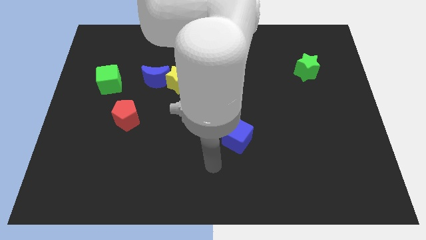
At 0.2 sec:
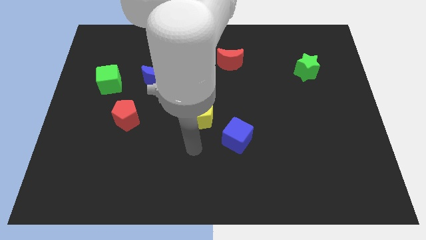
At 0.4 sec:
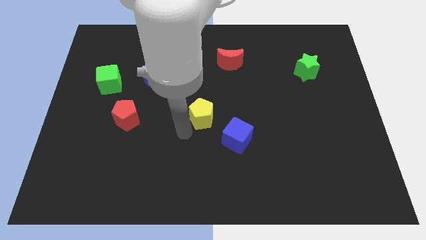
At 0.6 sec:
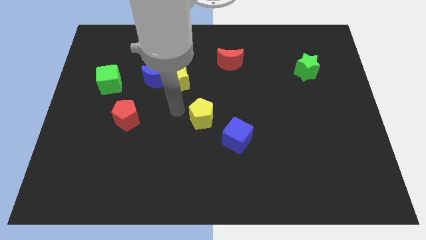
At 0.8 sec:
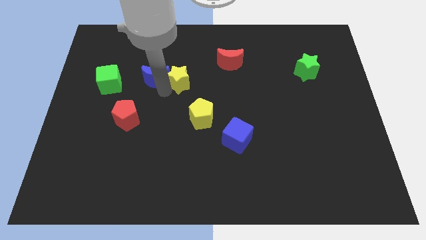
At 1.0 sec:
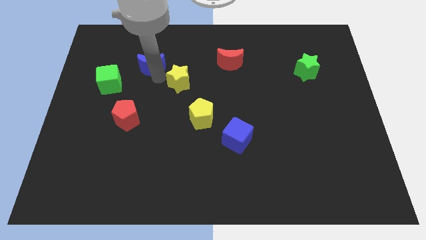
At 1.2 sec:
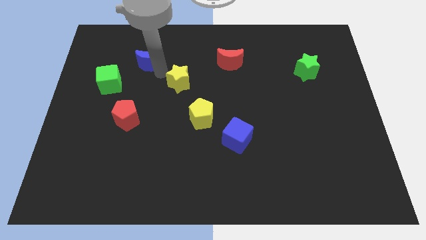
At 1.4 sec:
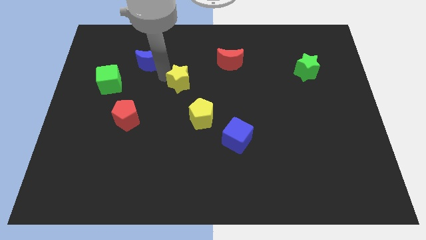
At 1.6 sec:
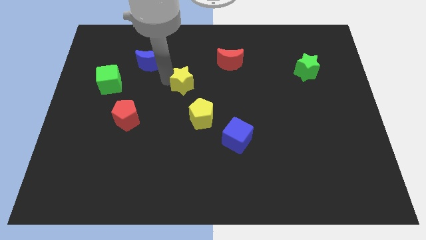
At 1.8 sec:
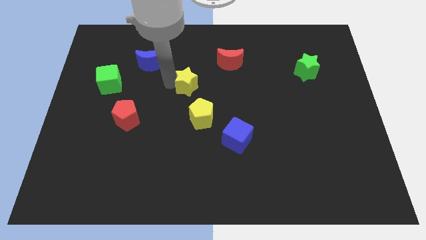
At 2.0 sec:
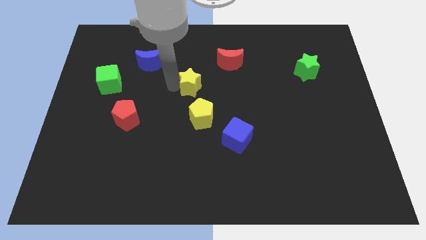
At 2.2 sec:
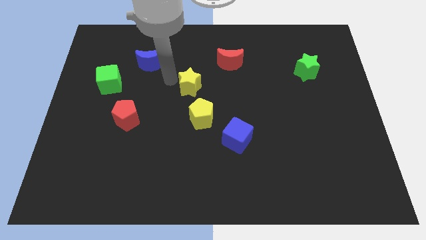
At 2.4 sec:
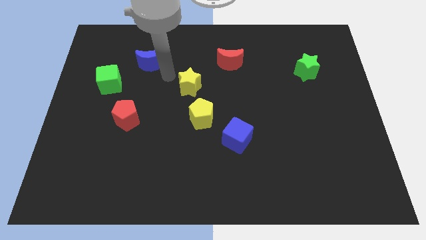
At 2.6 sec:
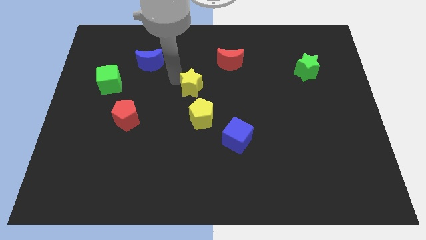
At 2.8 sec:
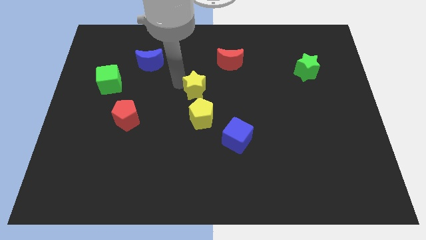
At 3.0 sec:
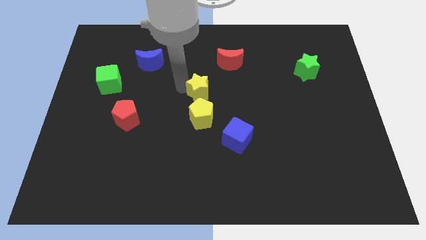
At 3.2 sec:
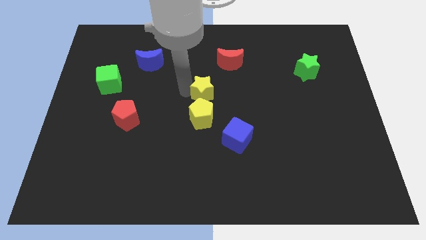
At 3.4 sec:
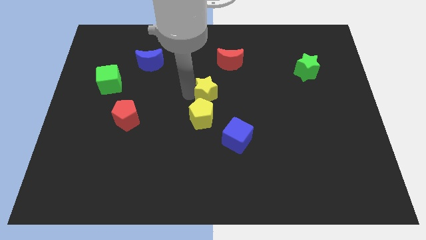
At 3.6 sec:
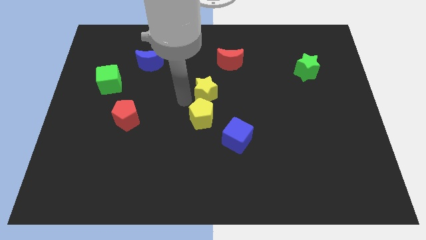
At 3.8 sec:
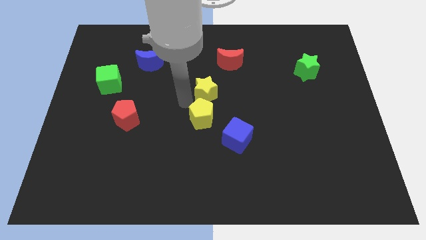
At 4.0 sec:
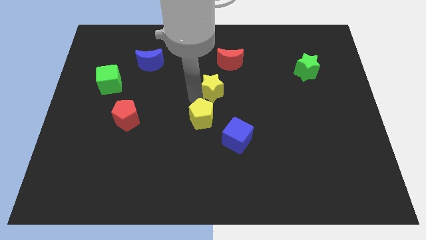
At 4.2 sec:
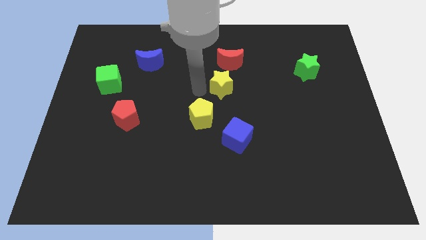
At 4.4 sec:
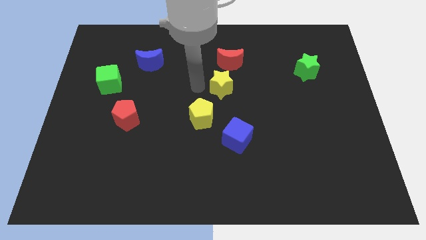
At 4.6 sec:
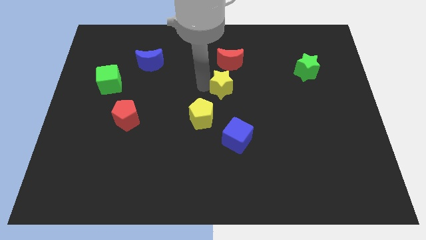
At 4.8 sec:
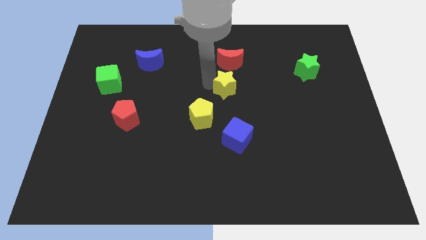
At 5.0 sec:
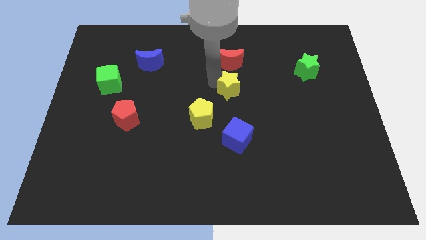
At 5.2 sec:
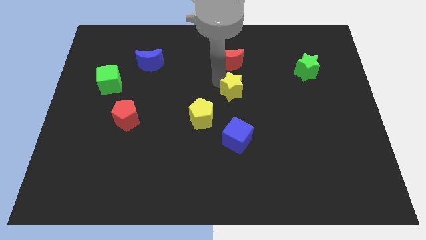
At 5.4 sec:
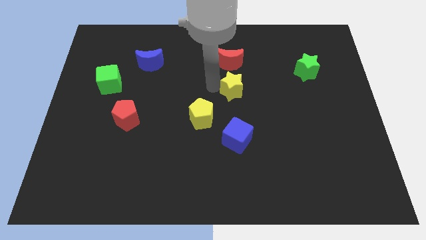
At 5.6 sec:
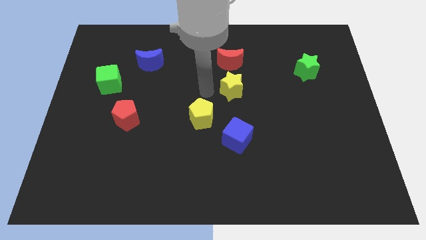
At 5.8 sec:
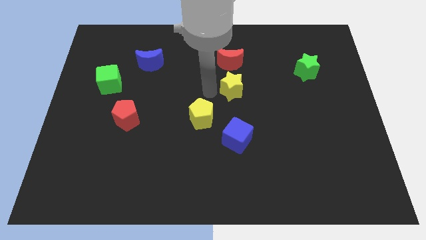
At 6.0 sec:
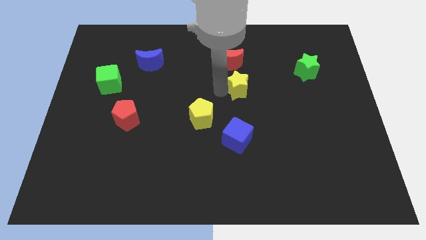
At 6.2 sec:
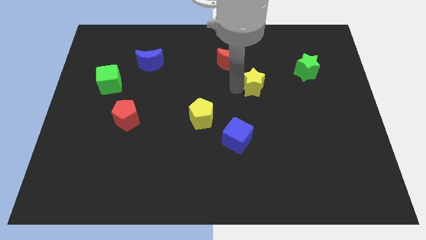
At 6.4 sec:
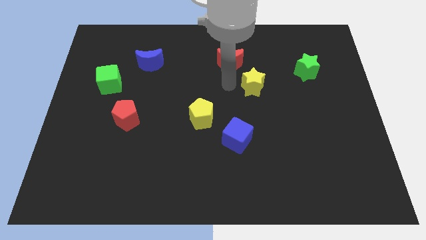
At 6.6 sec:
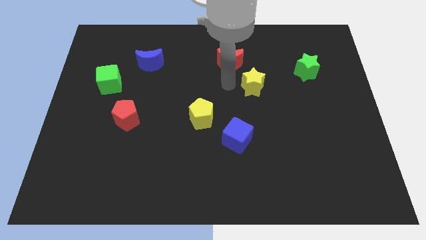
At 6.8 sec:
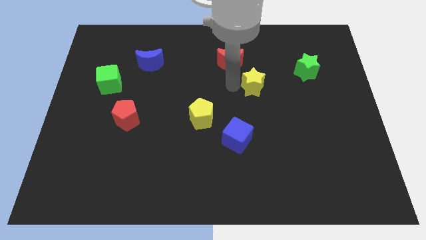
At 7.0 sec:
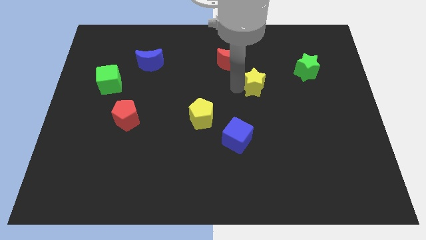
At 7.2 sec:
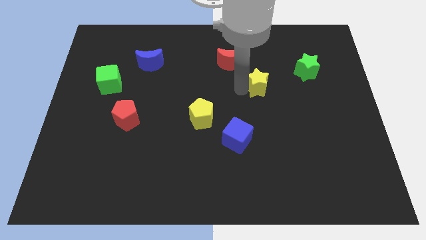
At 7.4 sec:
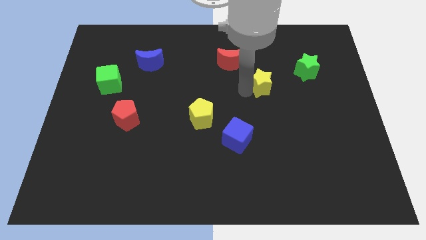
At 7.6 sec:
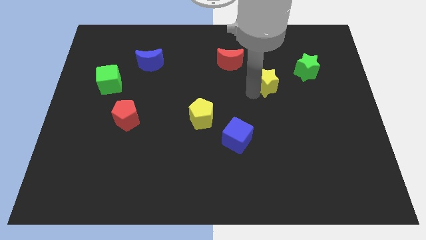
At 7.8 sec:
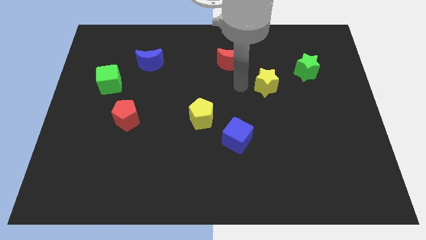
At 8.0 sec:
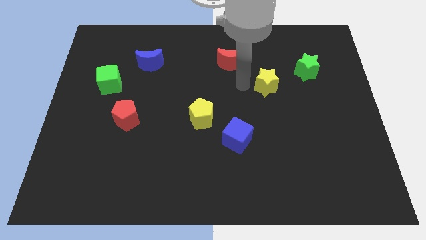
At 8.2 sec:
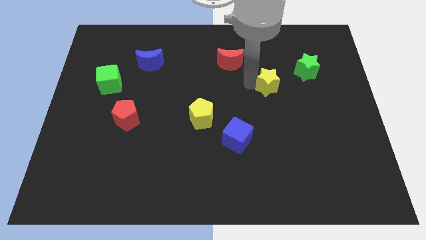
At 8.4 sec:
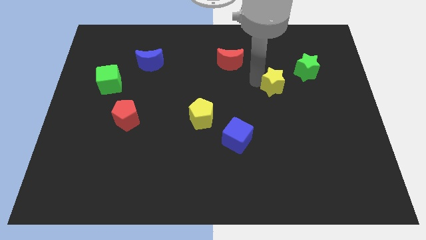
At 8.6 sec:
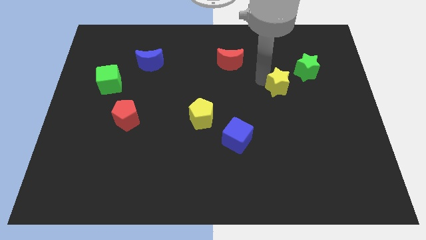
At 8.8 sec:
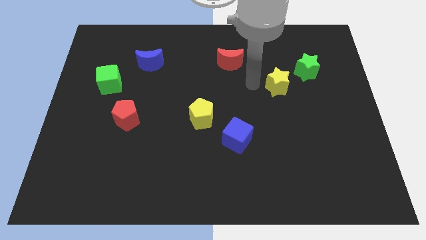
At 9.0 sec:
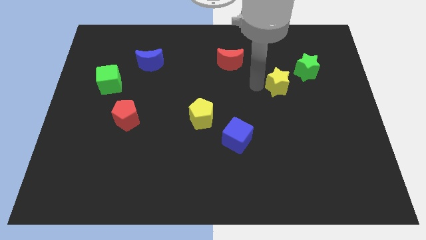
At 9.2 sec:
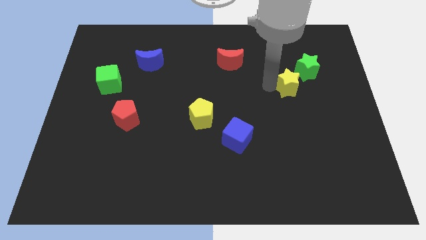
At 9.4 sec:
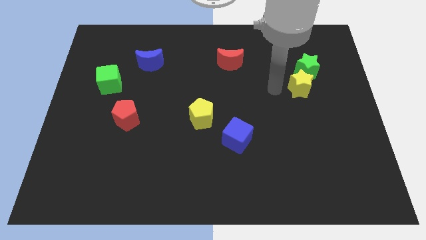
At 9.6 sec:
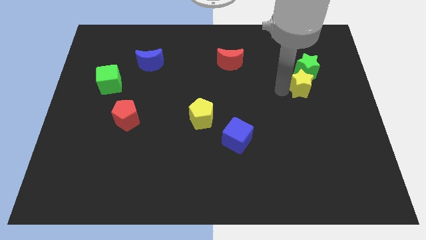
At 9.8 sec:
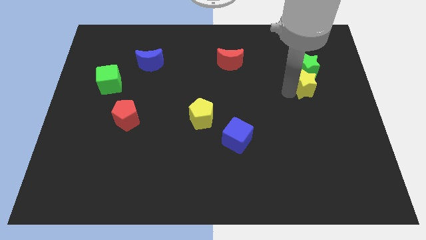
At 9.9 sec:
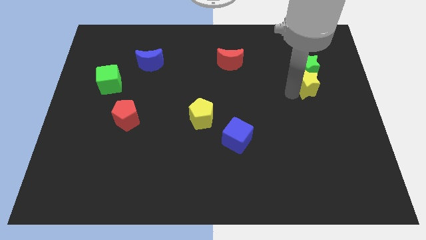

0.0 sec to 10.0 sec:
put the yellow star diagonally down and to the right of the green star

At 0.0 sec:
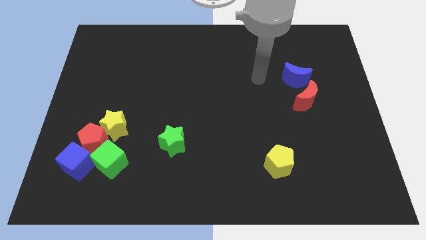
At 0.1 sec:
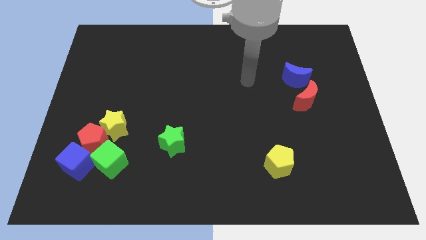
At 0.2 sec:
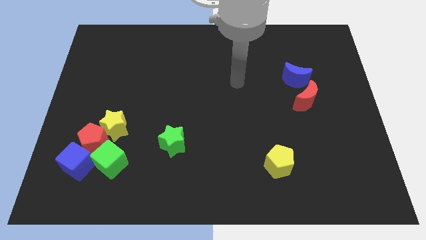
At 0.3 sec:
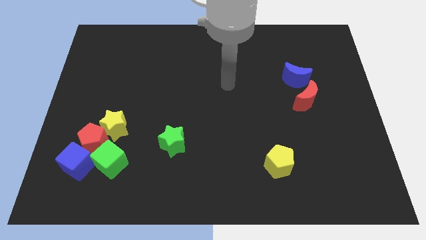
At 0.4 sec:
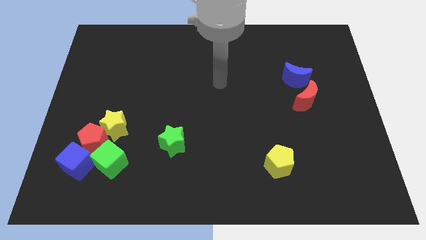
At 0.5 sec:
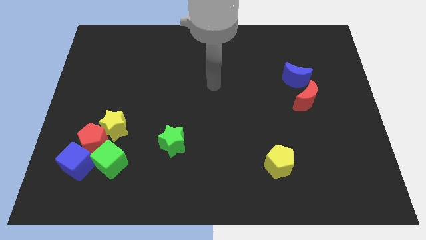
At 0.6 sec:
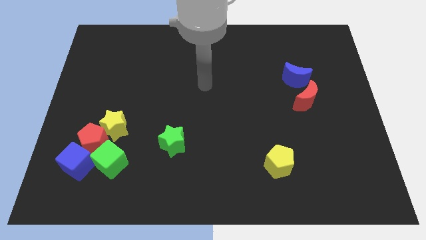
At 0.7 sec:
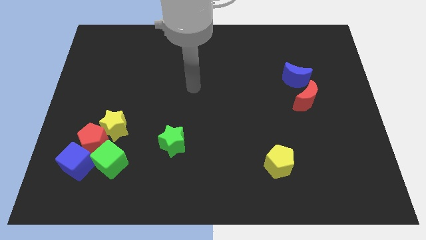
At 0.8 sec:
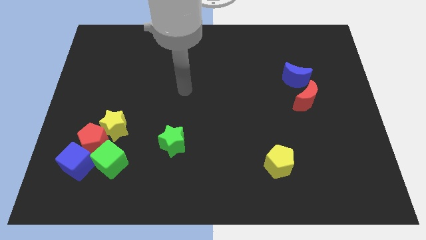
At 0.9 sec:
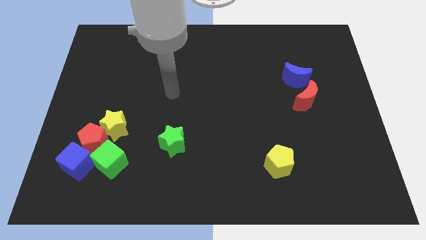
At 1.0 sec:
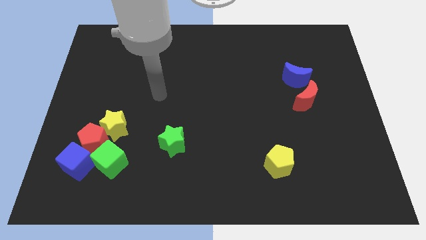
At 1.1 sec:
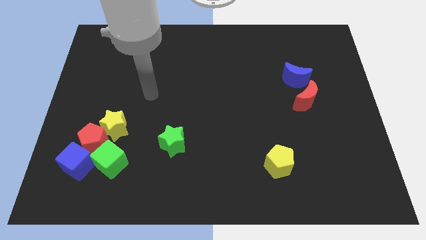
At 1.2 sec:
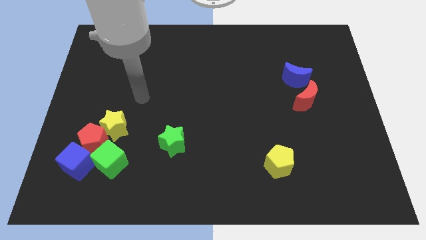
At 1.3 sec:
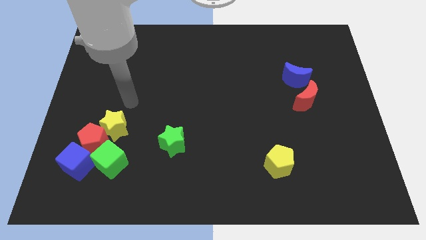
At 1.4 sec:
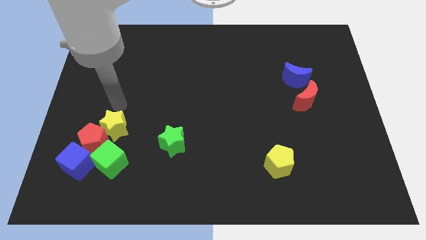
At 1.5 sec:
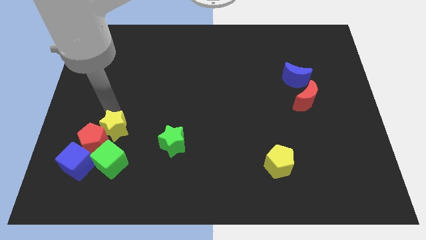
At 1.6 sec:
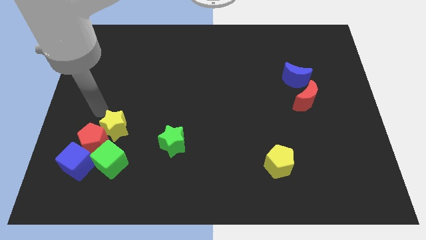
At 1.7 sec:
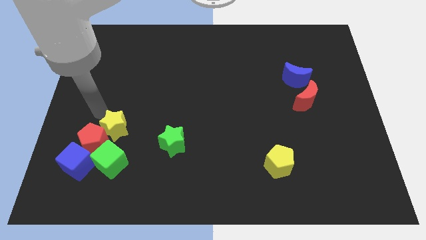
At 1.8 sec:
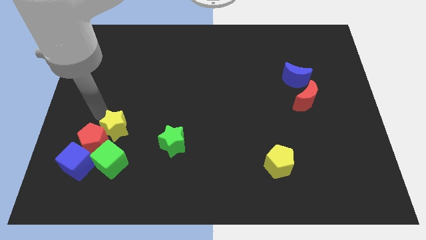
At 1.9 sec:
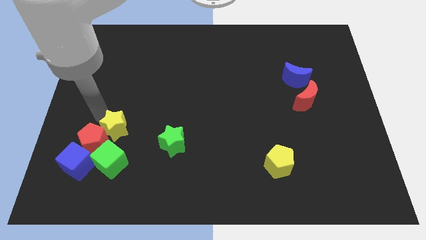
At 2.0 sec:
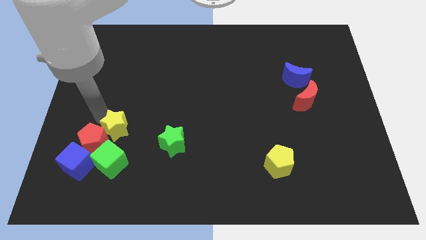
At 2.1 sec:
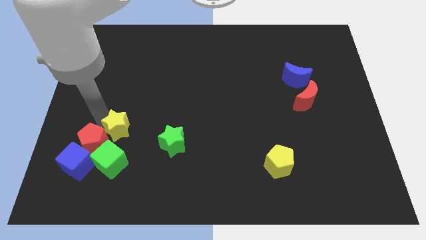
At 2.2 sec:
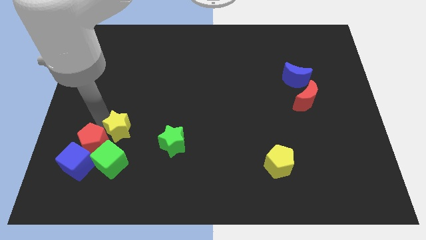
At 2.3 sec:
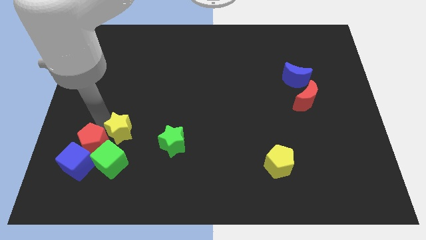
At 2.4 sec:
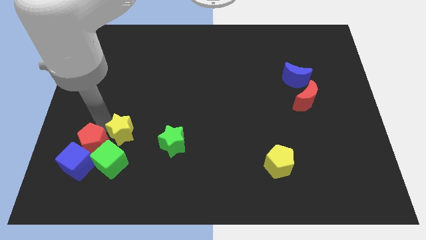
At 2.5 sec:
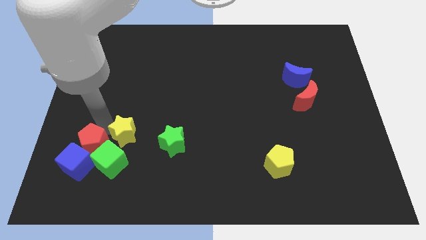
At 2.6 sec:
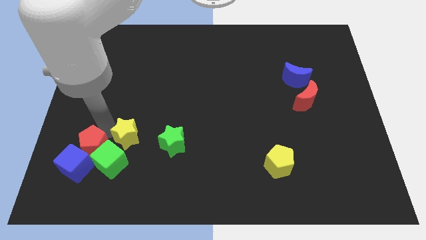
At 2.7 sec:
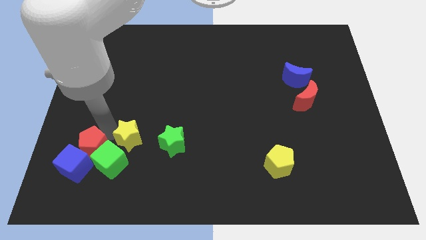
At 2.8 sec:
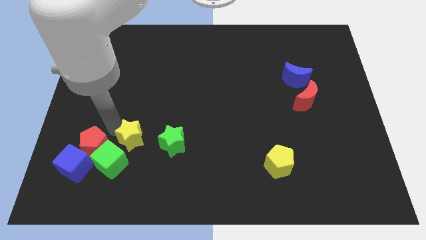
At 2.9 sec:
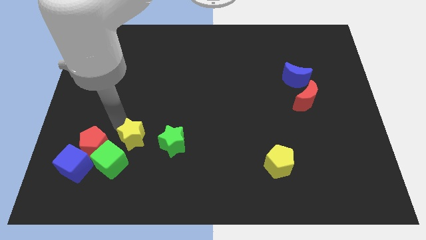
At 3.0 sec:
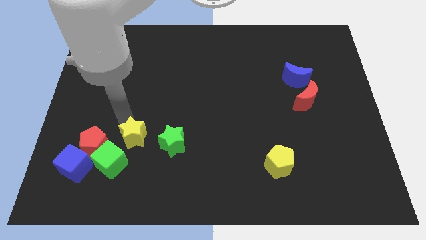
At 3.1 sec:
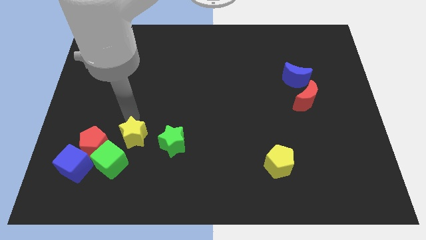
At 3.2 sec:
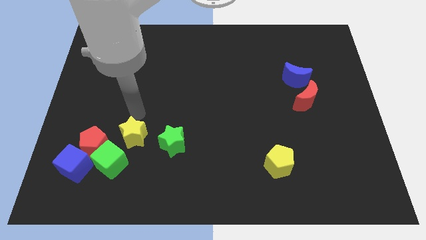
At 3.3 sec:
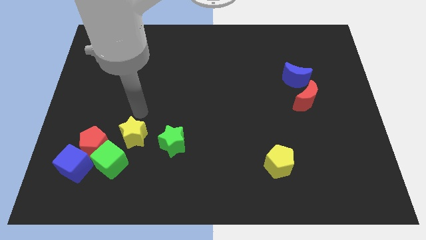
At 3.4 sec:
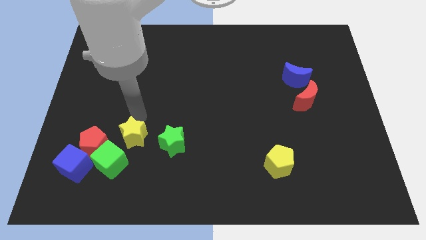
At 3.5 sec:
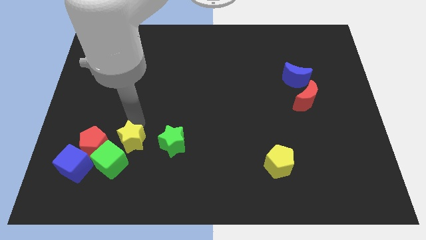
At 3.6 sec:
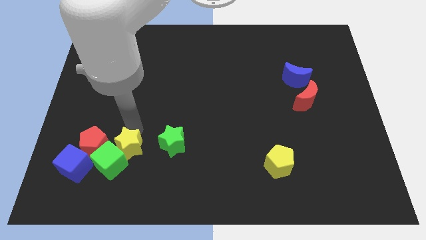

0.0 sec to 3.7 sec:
push the yellow star to the right side of the blue cube
